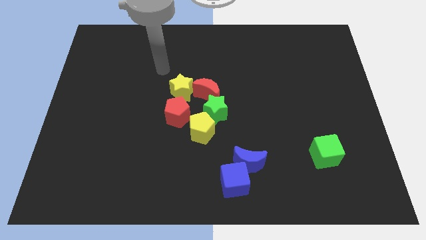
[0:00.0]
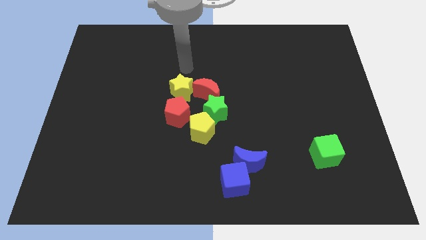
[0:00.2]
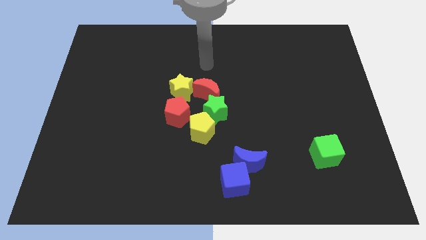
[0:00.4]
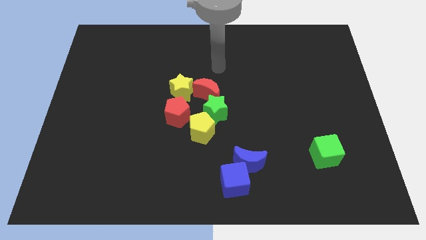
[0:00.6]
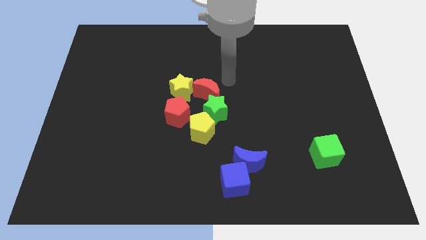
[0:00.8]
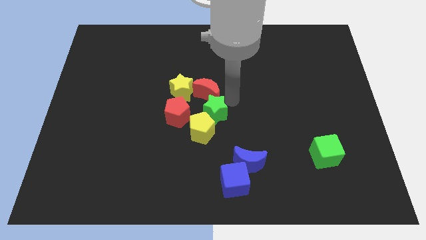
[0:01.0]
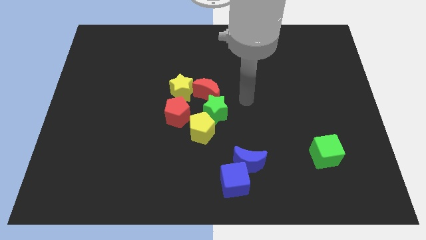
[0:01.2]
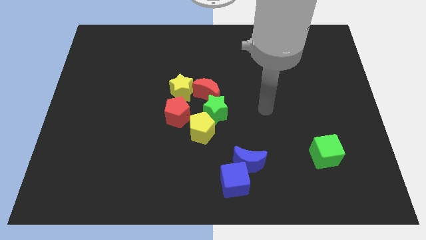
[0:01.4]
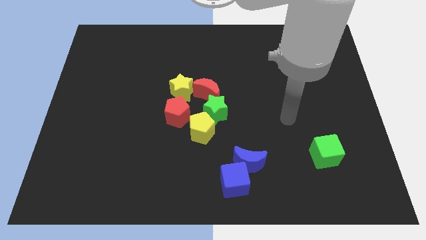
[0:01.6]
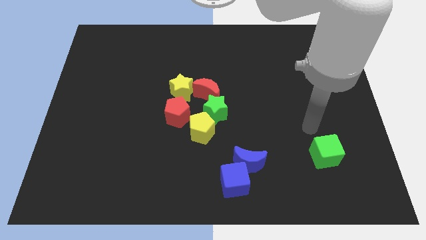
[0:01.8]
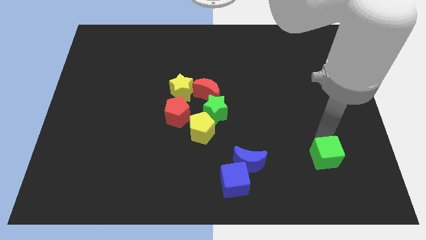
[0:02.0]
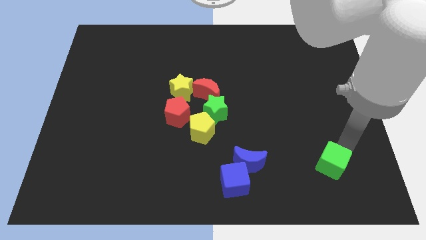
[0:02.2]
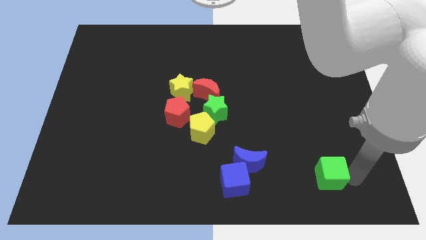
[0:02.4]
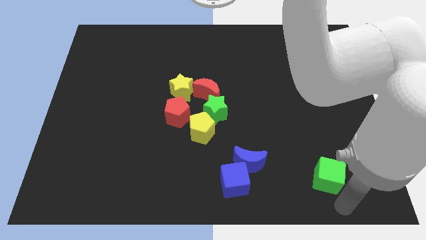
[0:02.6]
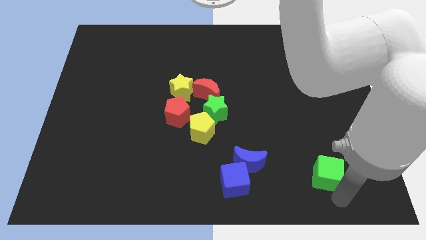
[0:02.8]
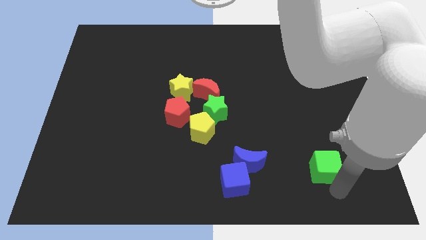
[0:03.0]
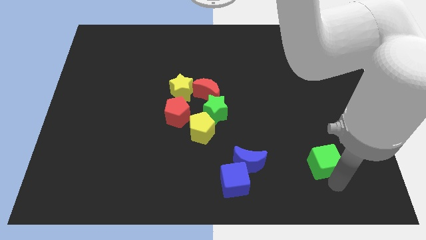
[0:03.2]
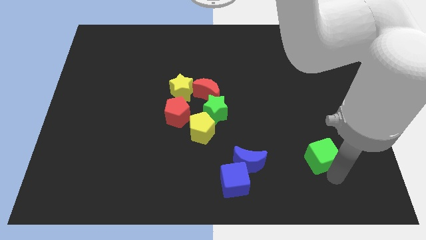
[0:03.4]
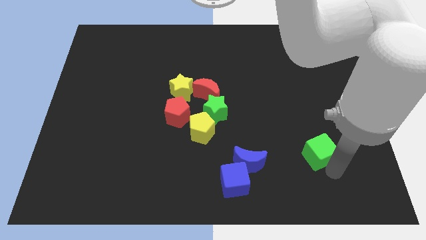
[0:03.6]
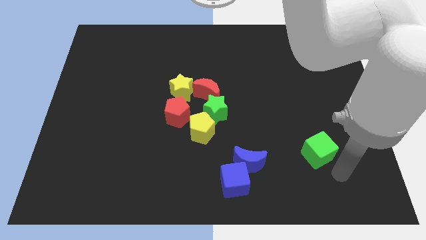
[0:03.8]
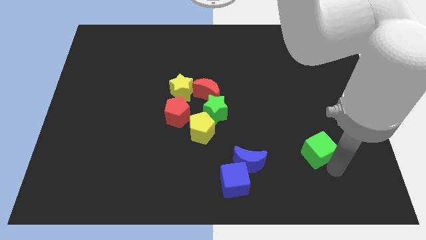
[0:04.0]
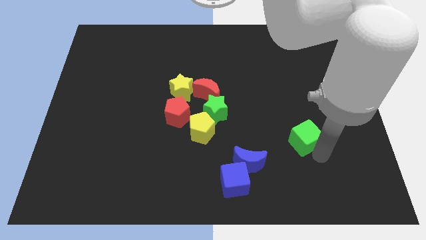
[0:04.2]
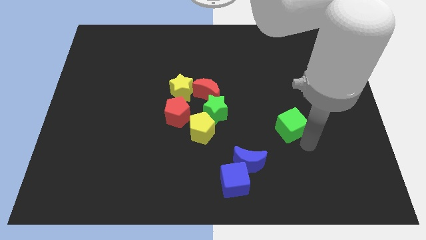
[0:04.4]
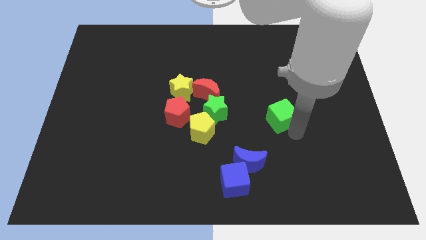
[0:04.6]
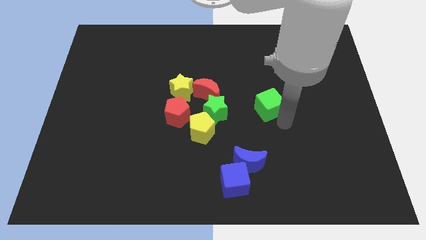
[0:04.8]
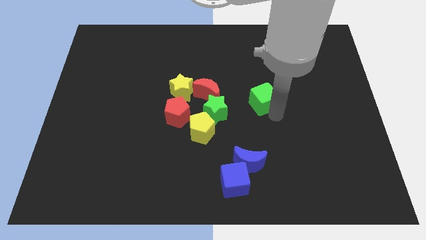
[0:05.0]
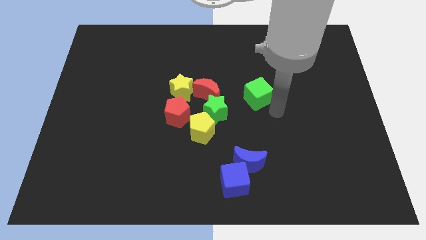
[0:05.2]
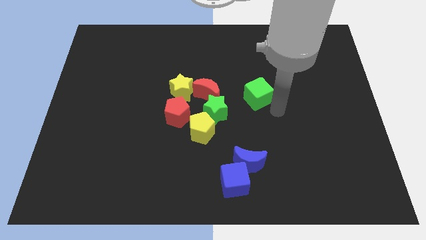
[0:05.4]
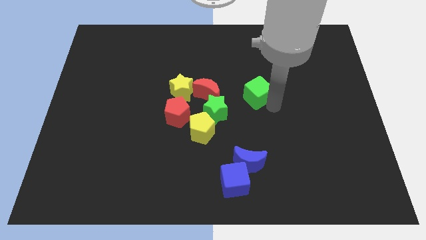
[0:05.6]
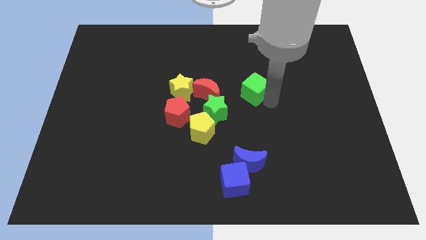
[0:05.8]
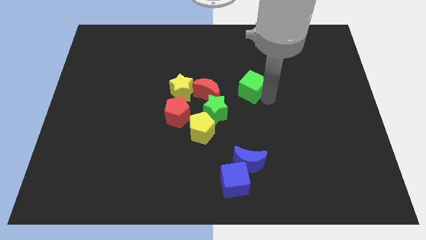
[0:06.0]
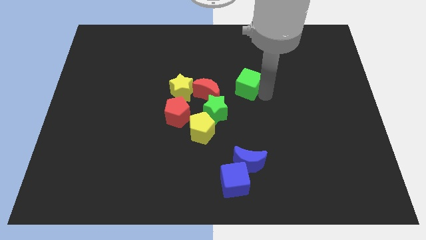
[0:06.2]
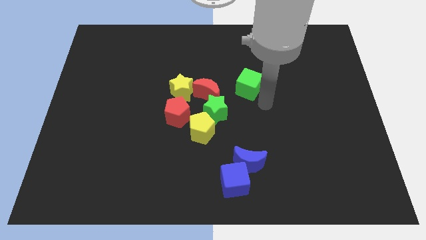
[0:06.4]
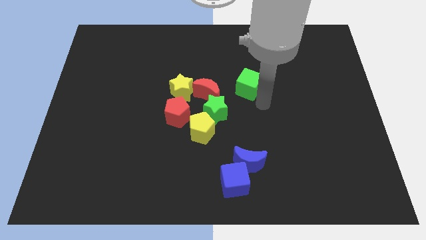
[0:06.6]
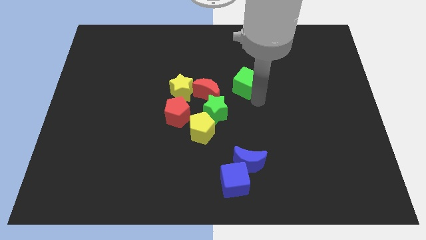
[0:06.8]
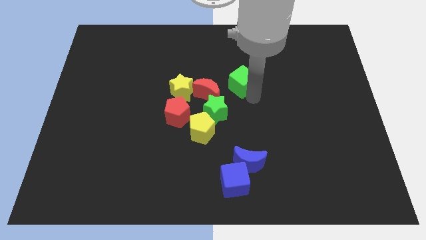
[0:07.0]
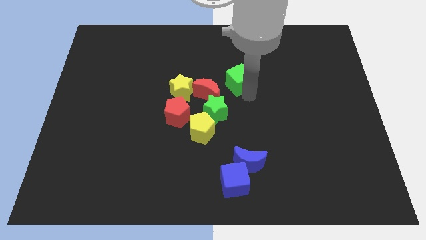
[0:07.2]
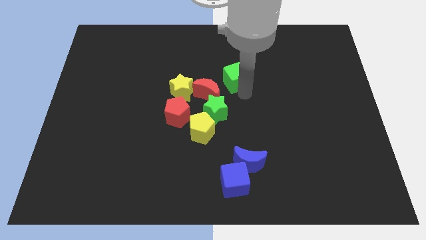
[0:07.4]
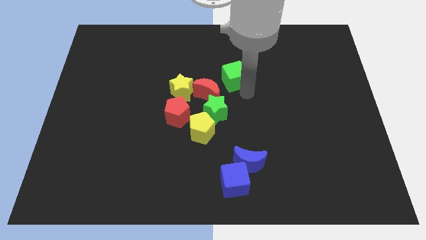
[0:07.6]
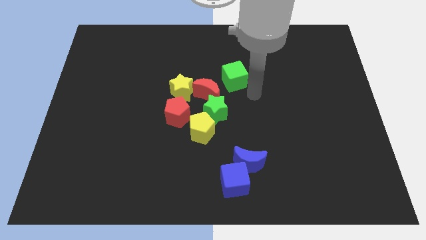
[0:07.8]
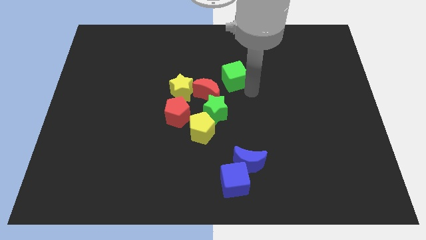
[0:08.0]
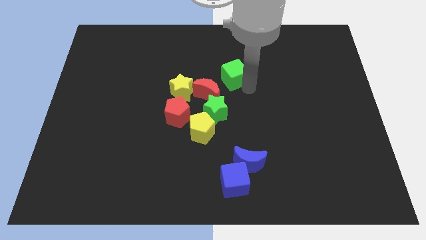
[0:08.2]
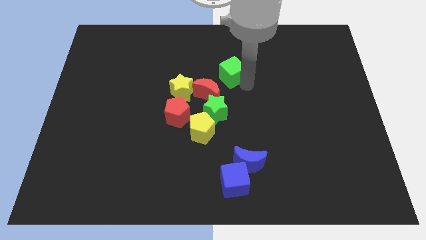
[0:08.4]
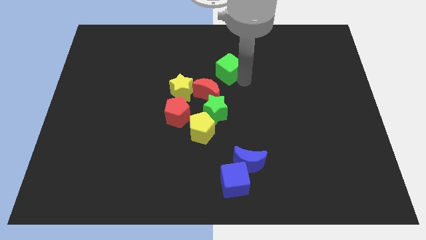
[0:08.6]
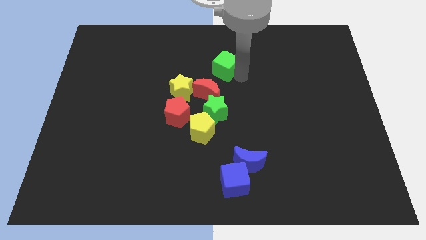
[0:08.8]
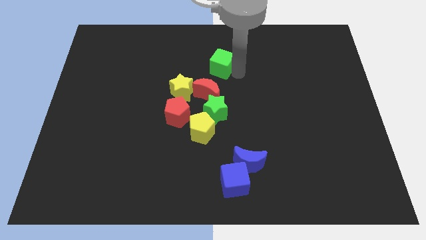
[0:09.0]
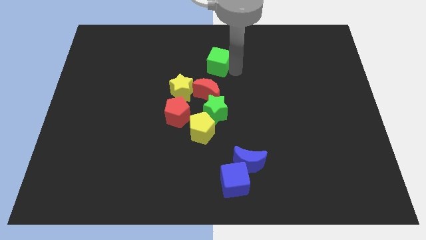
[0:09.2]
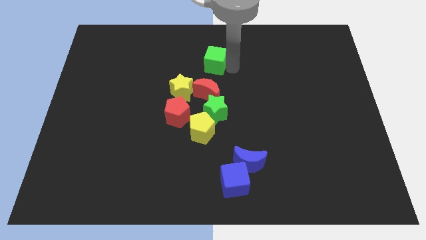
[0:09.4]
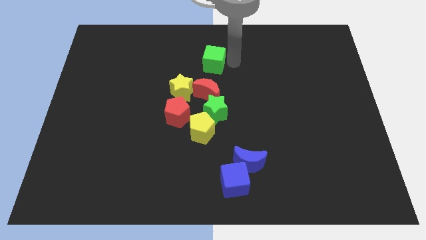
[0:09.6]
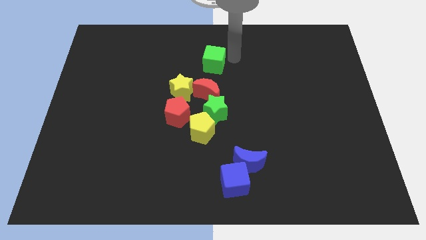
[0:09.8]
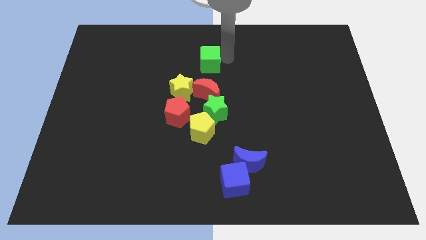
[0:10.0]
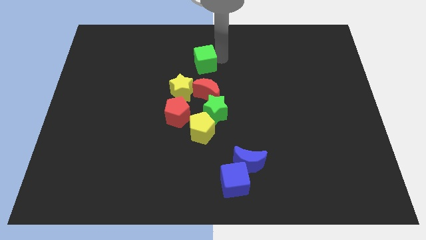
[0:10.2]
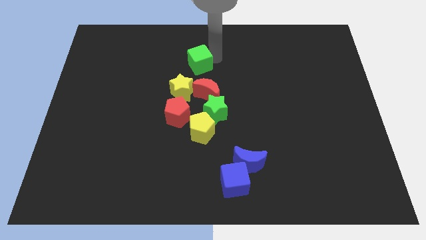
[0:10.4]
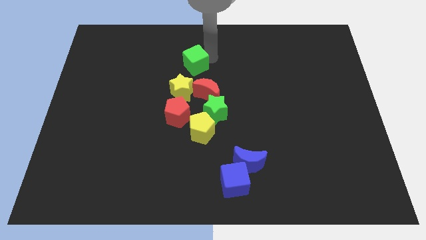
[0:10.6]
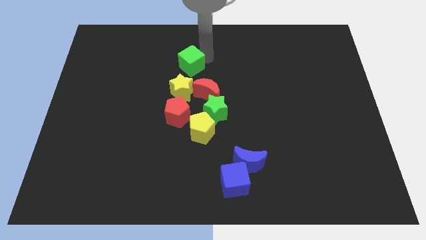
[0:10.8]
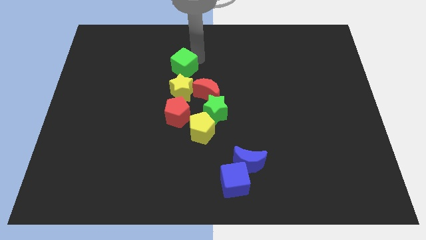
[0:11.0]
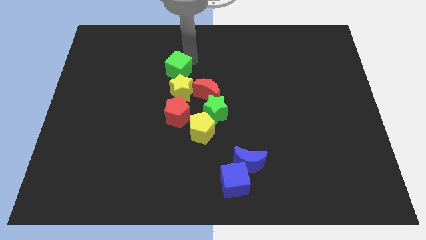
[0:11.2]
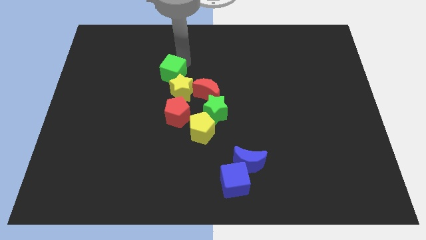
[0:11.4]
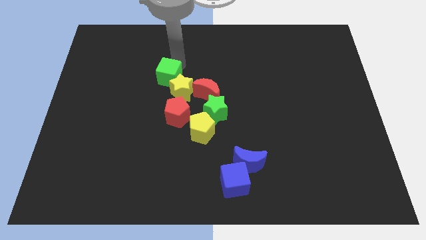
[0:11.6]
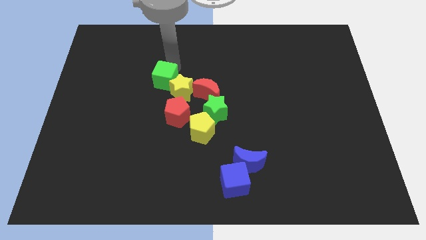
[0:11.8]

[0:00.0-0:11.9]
move the green cube to the left side of the red moon

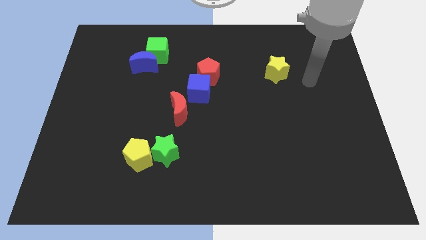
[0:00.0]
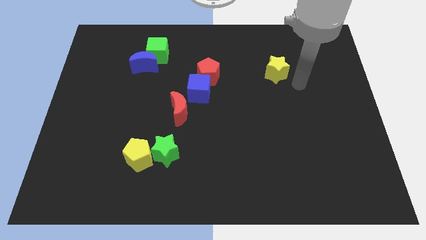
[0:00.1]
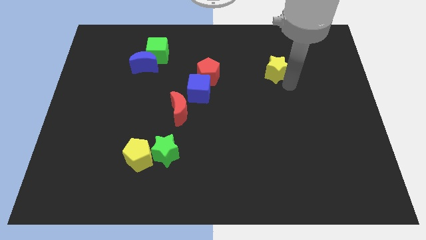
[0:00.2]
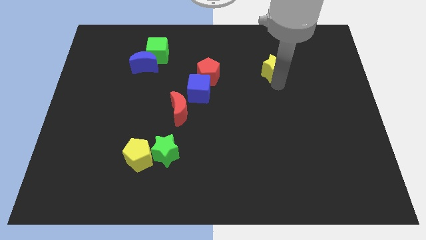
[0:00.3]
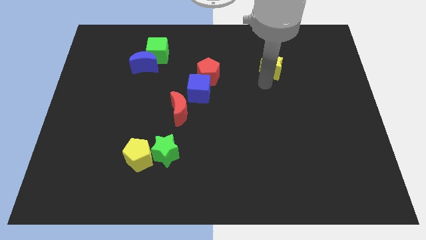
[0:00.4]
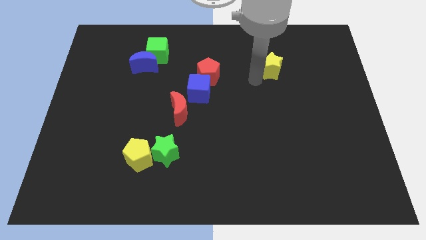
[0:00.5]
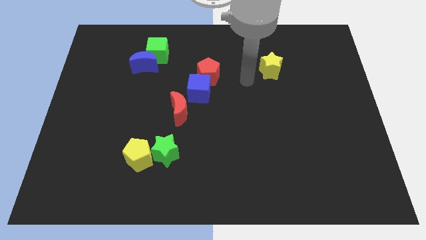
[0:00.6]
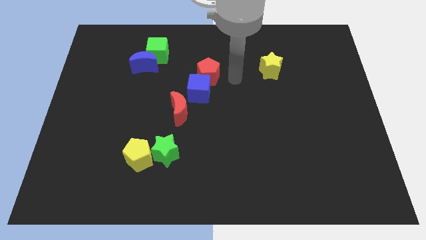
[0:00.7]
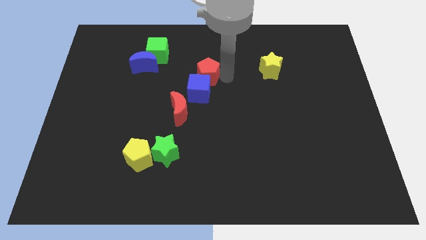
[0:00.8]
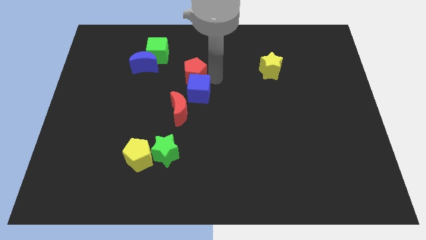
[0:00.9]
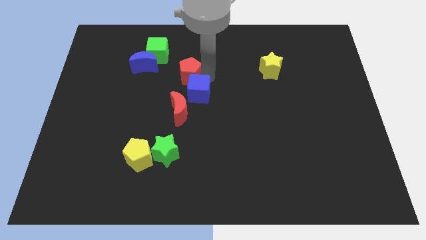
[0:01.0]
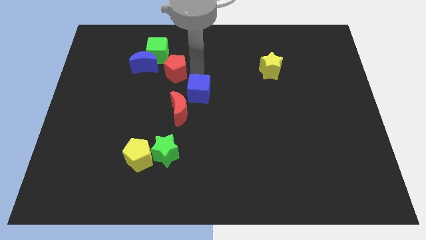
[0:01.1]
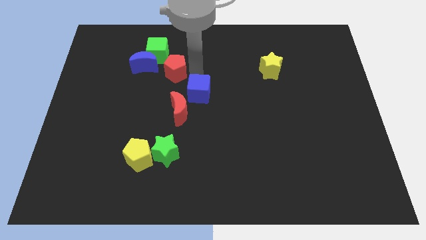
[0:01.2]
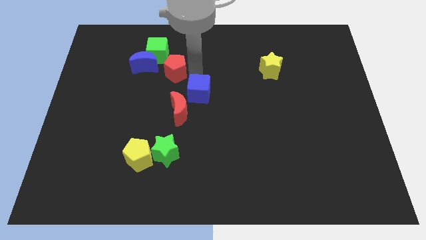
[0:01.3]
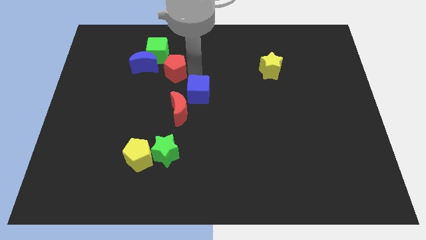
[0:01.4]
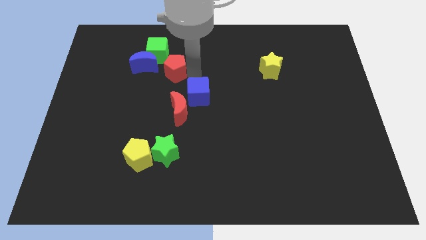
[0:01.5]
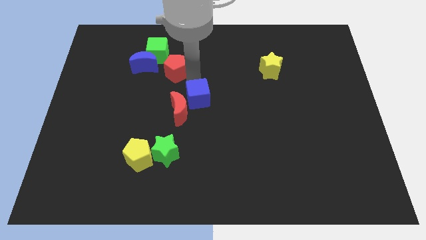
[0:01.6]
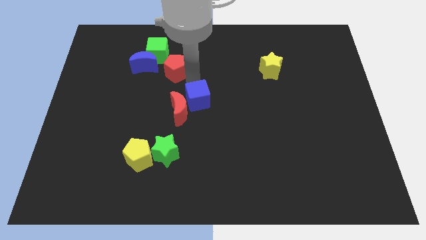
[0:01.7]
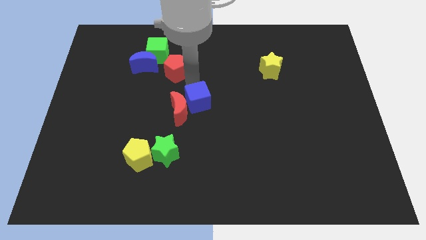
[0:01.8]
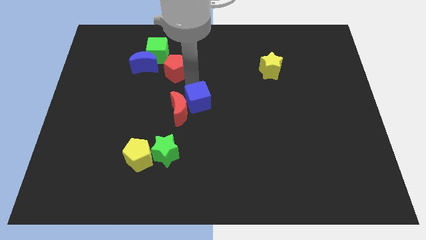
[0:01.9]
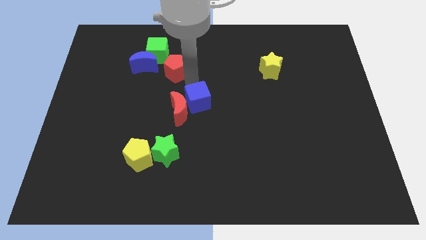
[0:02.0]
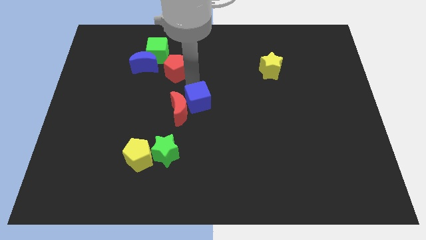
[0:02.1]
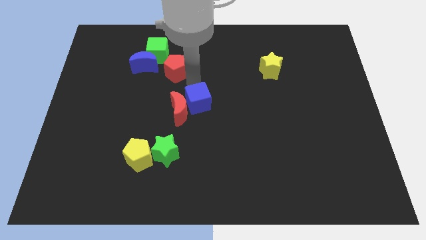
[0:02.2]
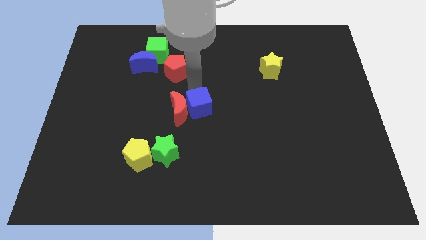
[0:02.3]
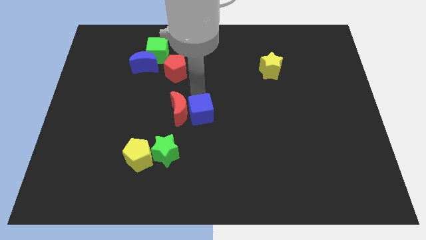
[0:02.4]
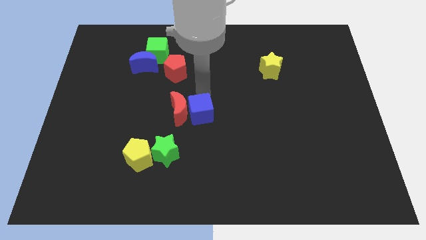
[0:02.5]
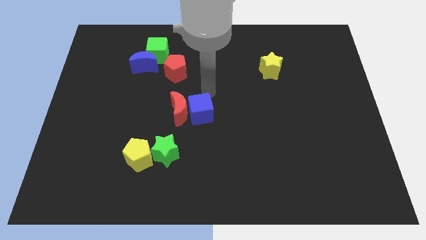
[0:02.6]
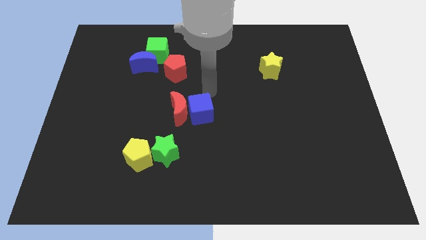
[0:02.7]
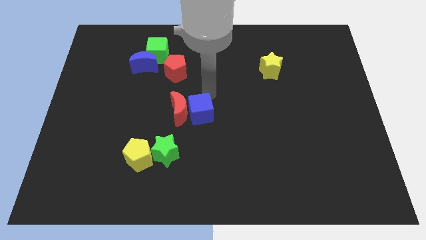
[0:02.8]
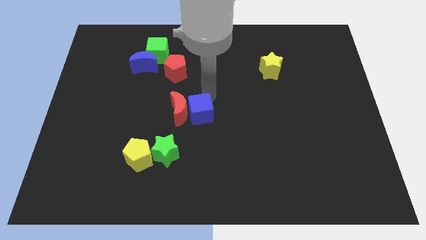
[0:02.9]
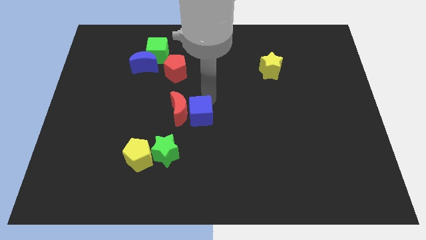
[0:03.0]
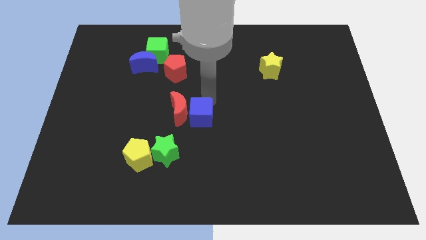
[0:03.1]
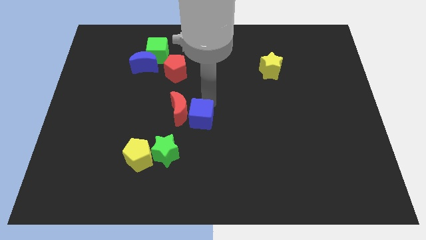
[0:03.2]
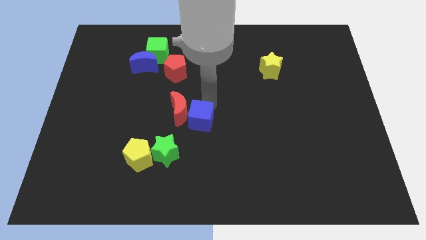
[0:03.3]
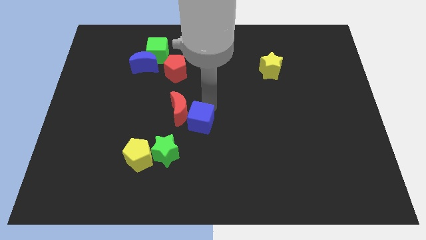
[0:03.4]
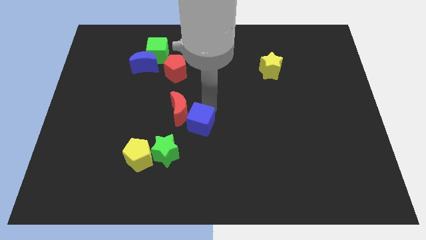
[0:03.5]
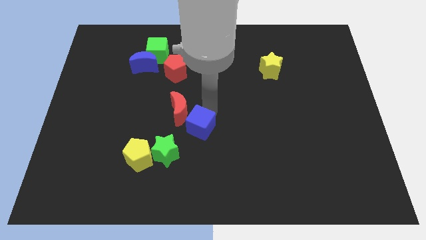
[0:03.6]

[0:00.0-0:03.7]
slide the blue cube below the red moon
